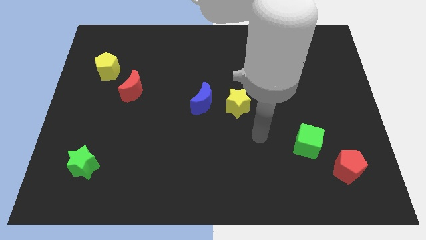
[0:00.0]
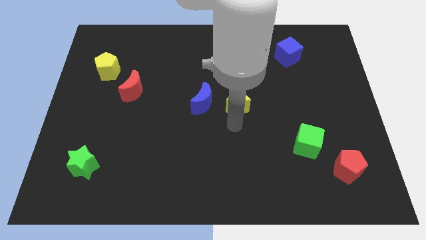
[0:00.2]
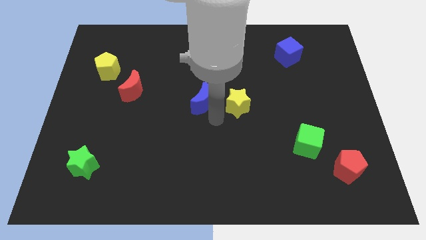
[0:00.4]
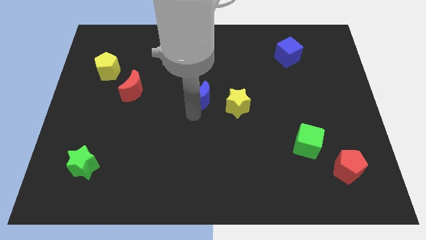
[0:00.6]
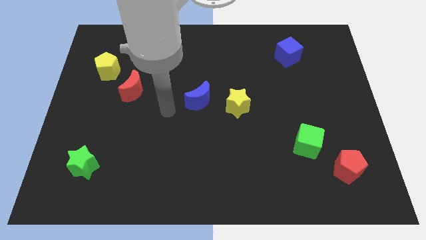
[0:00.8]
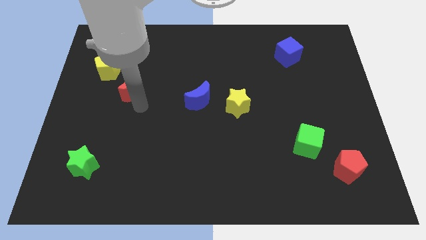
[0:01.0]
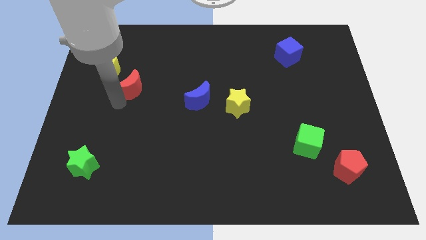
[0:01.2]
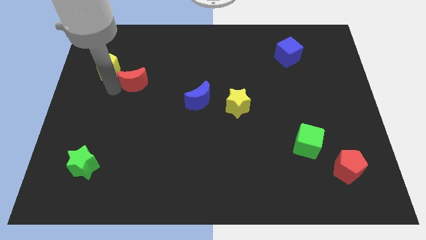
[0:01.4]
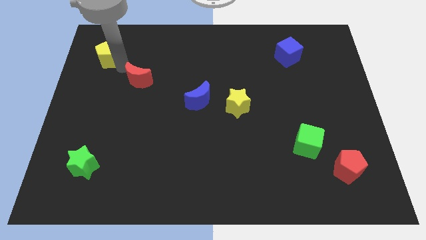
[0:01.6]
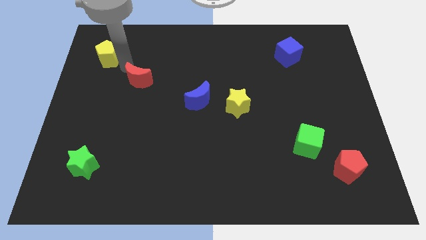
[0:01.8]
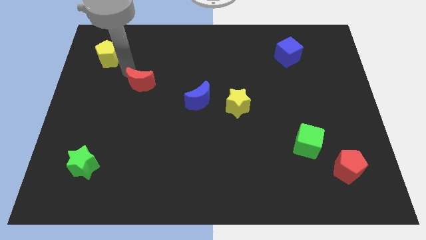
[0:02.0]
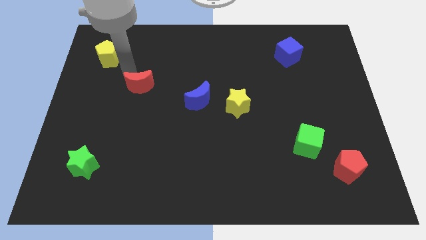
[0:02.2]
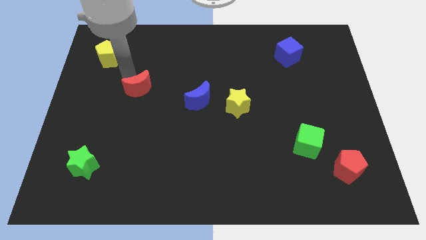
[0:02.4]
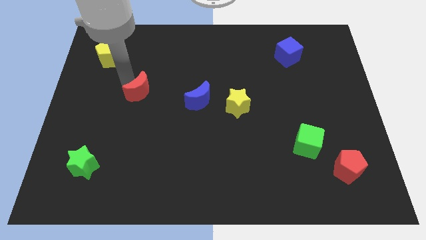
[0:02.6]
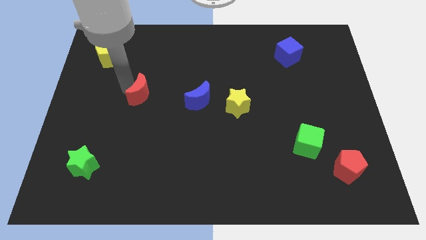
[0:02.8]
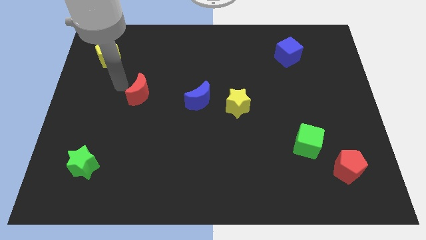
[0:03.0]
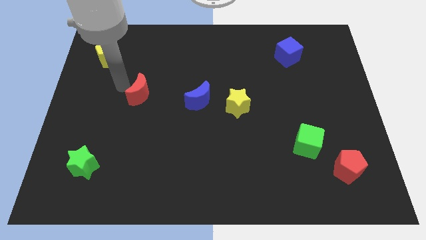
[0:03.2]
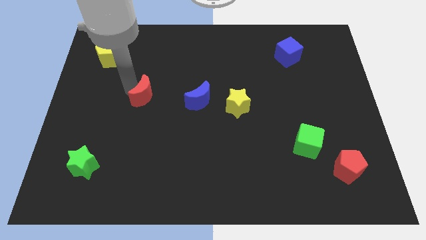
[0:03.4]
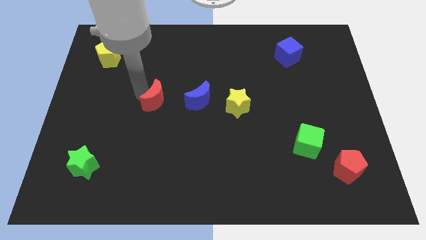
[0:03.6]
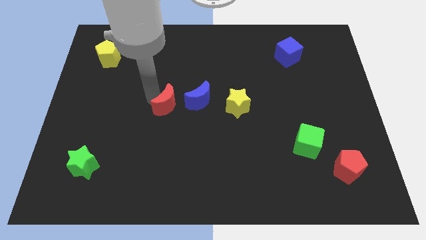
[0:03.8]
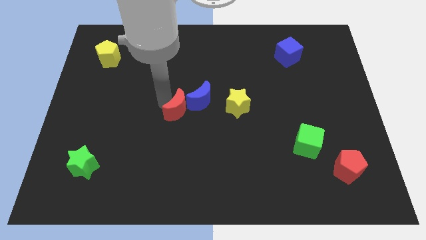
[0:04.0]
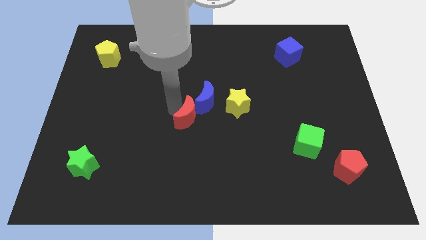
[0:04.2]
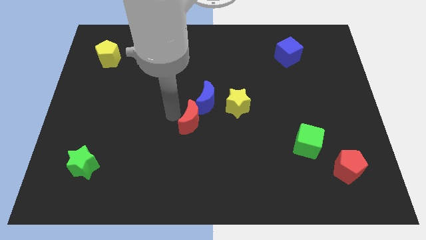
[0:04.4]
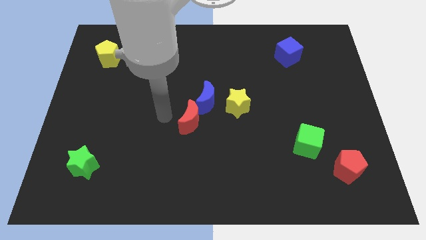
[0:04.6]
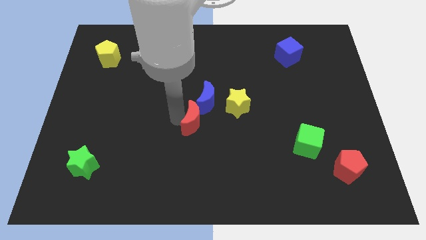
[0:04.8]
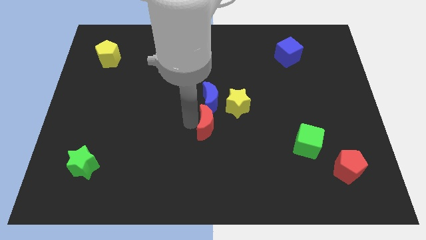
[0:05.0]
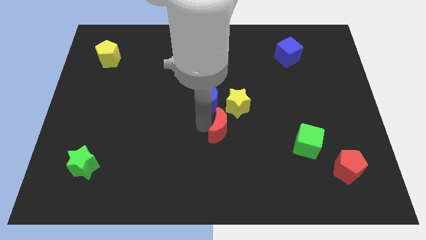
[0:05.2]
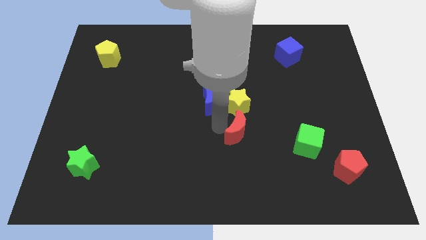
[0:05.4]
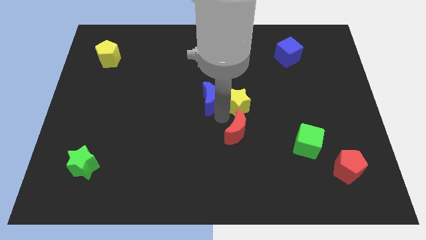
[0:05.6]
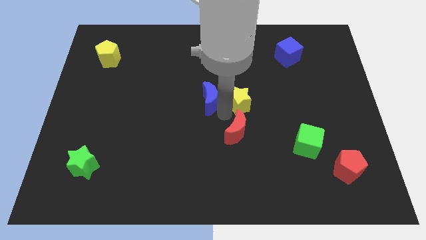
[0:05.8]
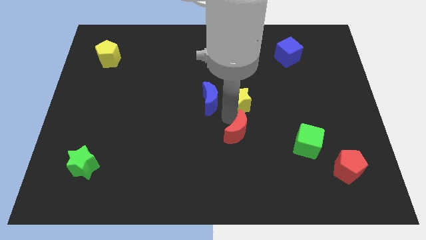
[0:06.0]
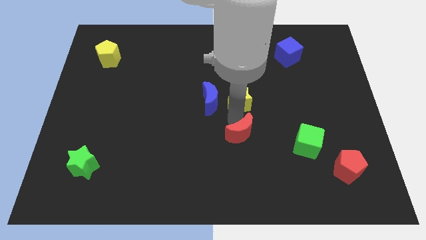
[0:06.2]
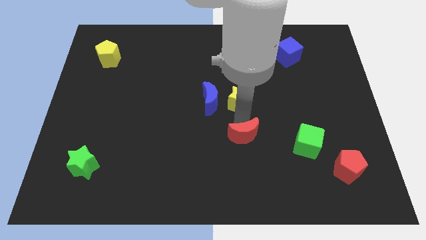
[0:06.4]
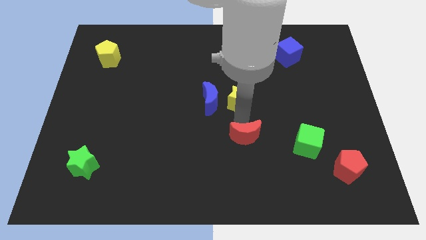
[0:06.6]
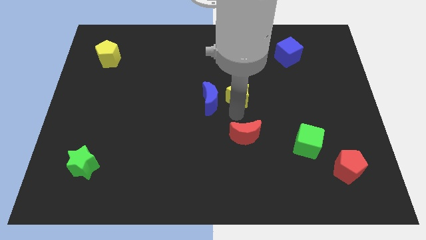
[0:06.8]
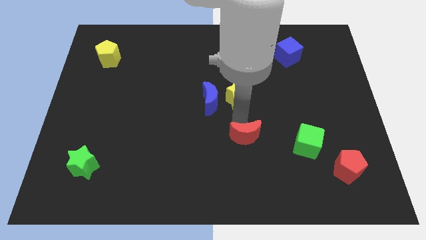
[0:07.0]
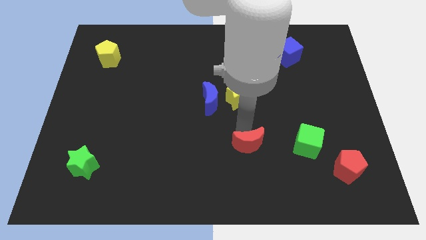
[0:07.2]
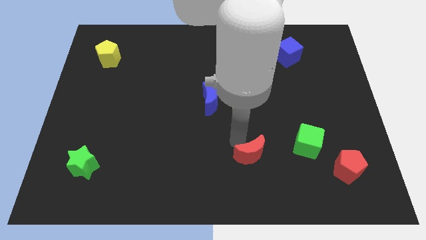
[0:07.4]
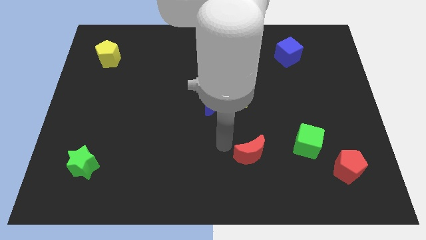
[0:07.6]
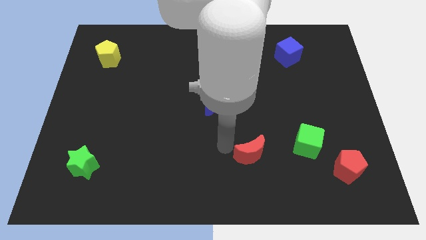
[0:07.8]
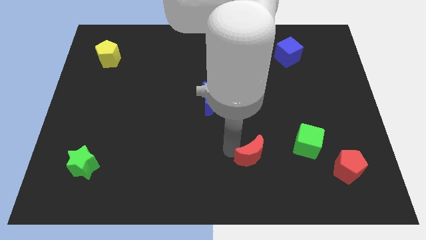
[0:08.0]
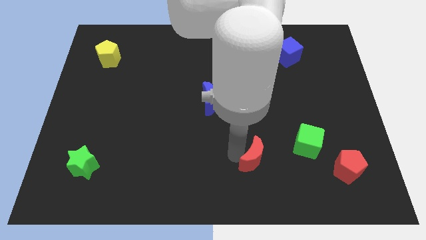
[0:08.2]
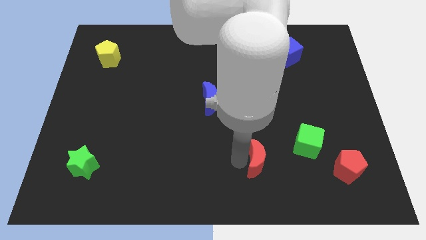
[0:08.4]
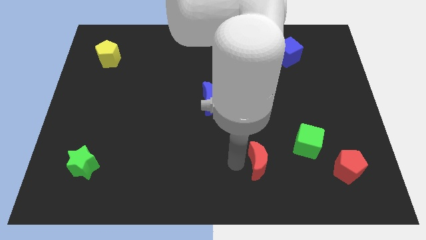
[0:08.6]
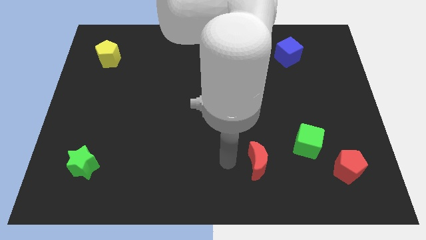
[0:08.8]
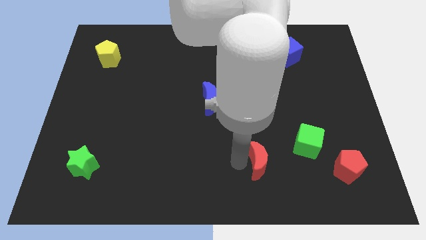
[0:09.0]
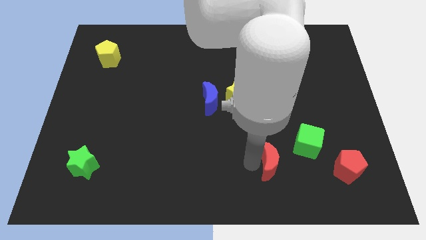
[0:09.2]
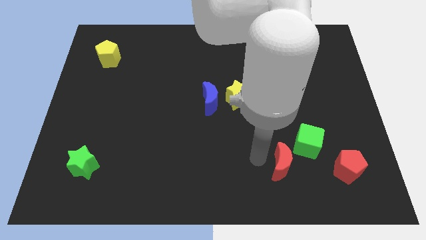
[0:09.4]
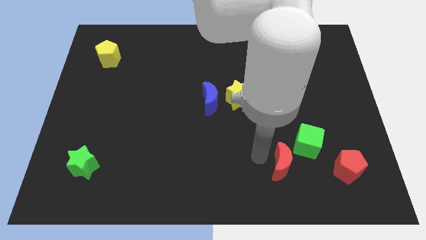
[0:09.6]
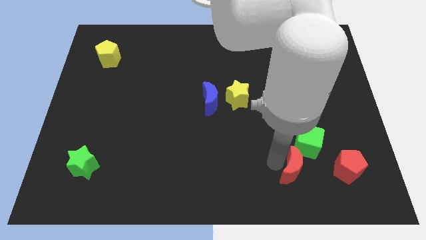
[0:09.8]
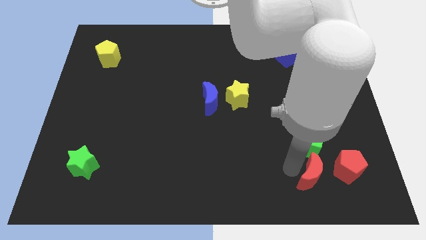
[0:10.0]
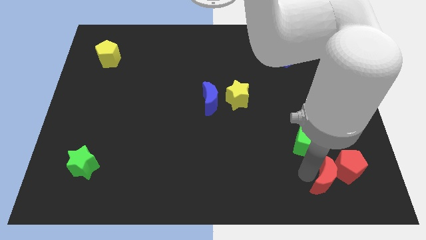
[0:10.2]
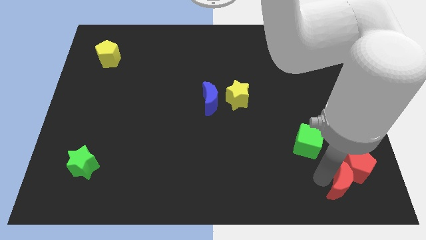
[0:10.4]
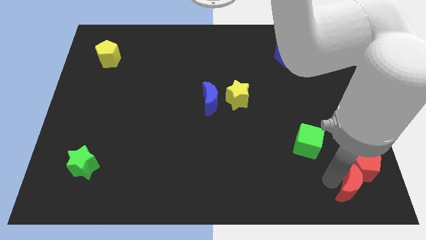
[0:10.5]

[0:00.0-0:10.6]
move the red moon to the bottom right of the board

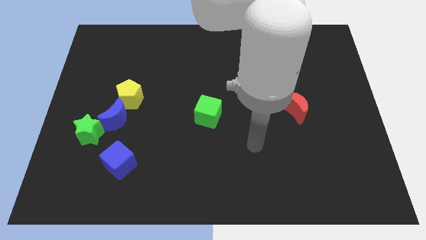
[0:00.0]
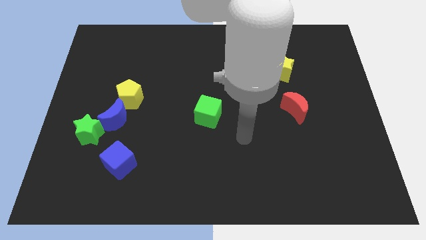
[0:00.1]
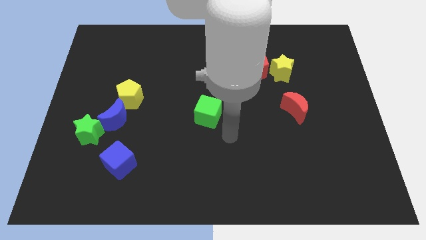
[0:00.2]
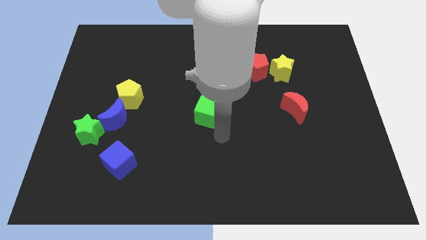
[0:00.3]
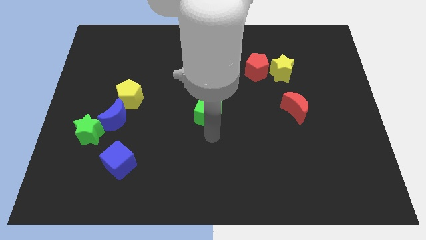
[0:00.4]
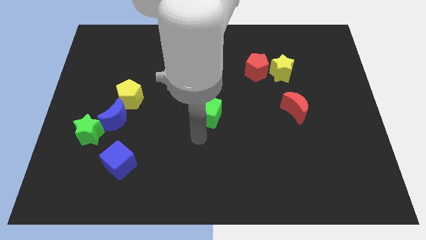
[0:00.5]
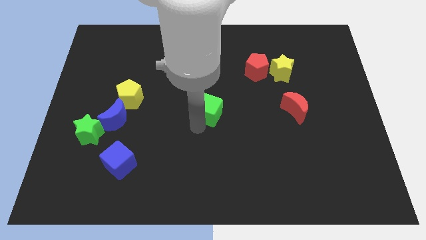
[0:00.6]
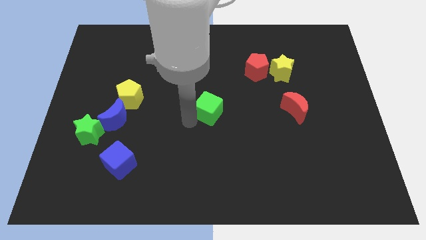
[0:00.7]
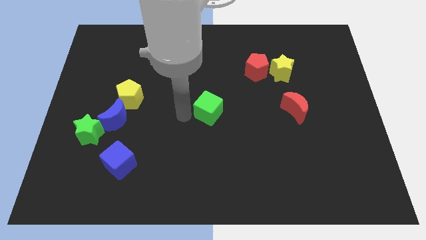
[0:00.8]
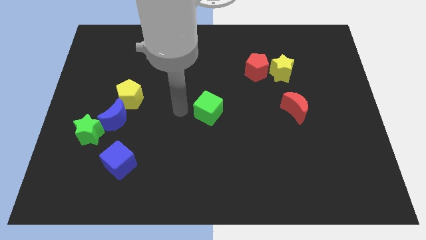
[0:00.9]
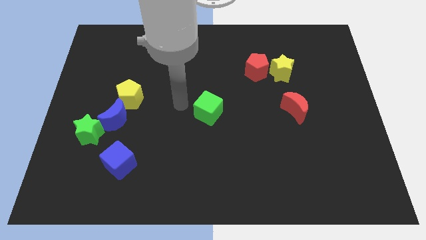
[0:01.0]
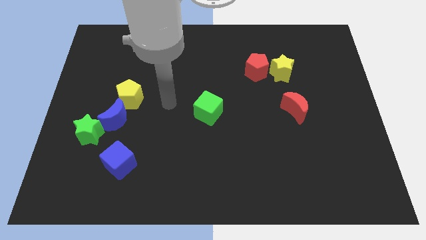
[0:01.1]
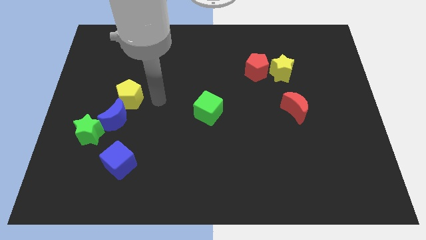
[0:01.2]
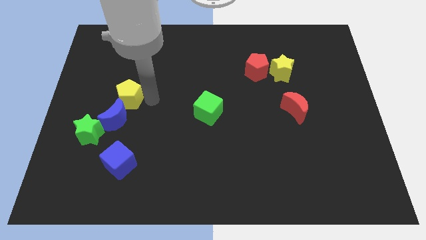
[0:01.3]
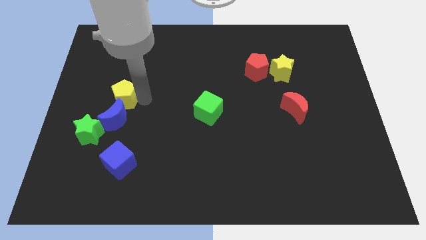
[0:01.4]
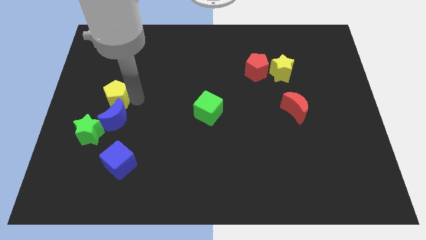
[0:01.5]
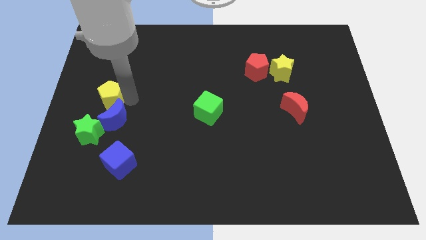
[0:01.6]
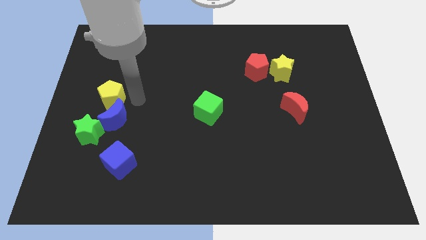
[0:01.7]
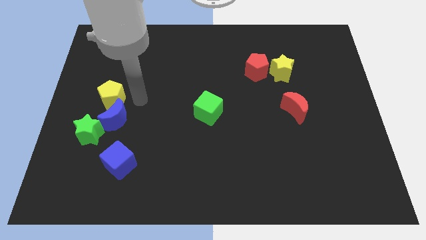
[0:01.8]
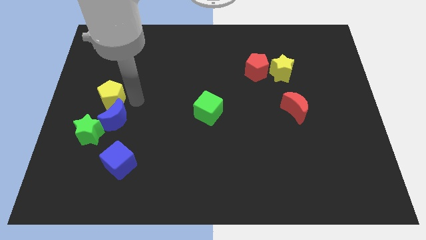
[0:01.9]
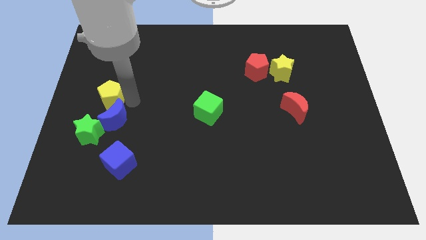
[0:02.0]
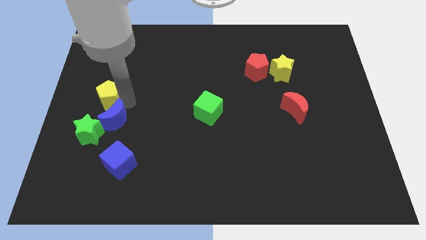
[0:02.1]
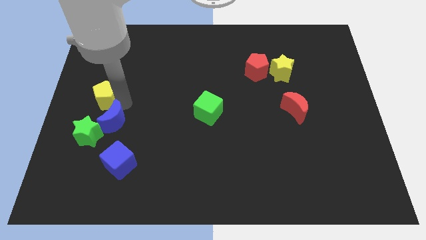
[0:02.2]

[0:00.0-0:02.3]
put the yellow pentagon to the left side of the board
